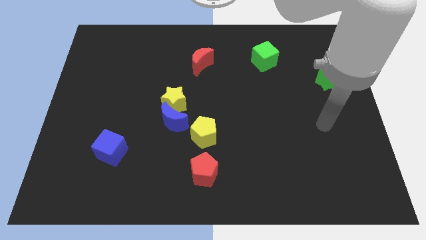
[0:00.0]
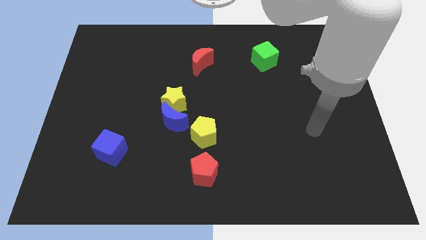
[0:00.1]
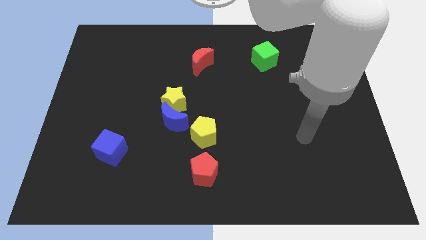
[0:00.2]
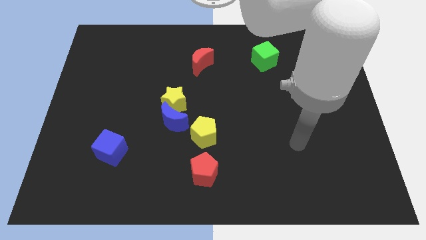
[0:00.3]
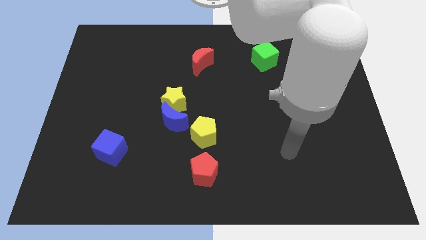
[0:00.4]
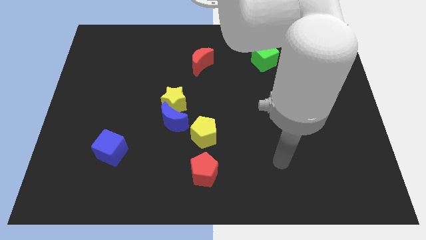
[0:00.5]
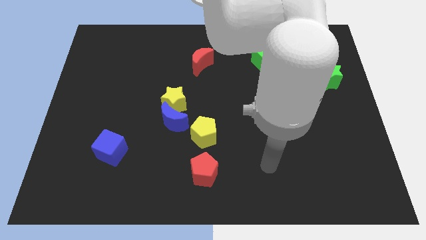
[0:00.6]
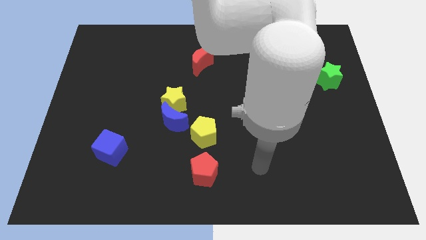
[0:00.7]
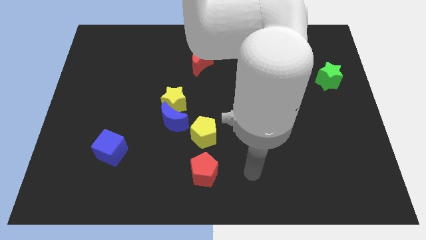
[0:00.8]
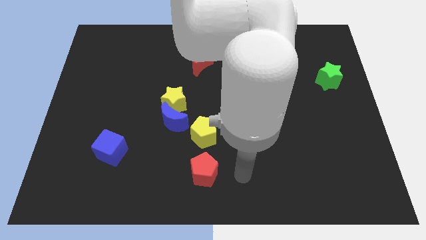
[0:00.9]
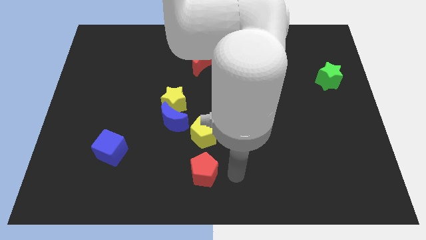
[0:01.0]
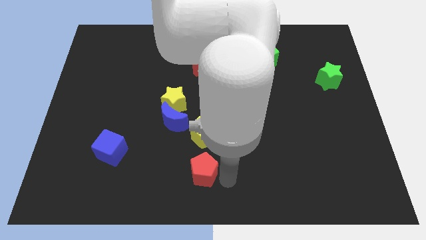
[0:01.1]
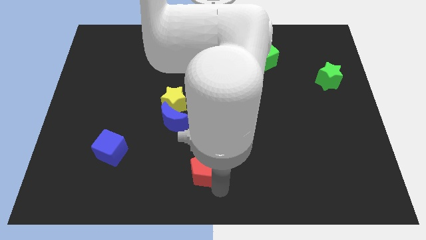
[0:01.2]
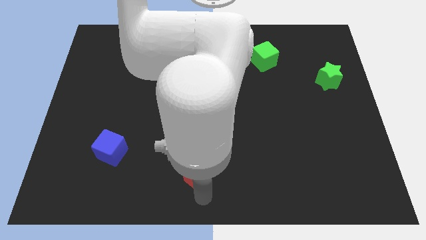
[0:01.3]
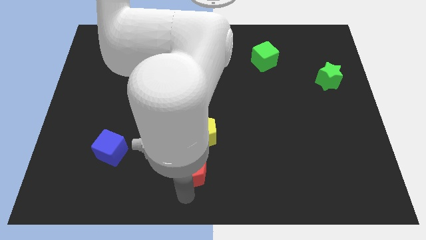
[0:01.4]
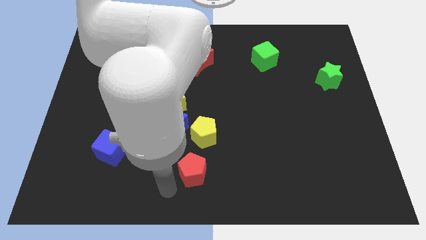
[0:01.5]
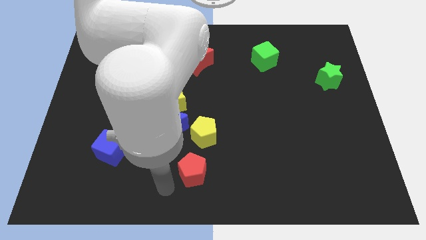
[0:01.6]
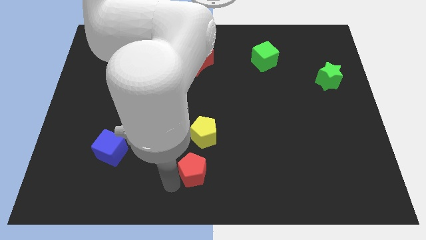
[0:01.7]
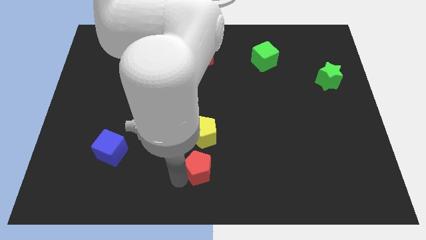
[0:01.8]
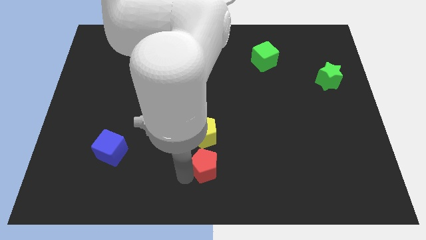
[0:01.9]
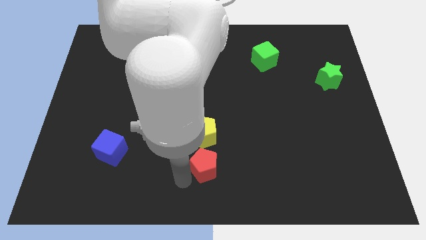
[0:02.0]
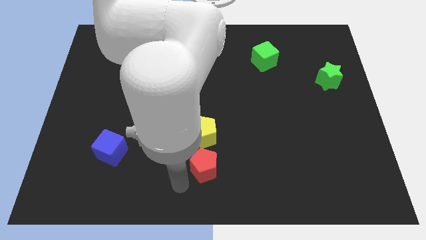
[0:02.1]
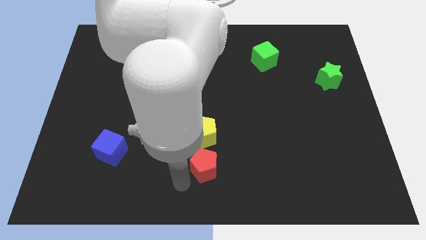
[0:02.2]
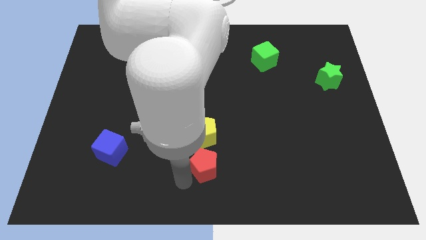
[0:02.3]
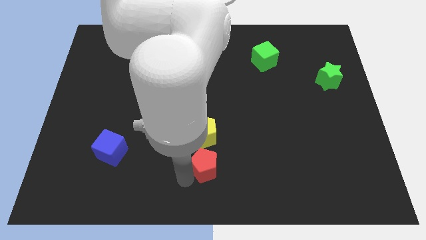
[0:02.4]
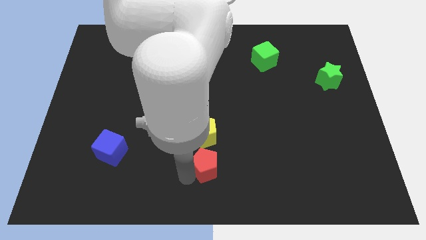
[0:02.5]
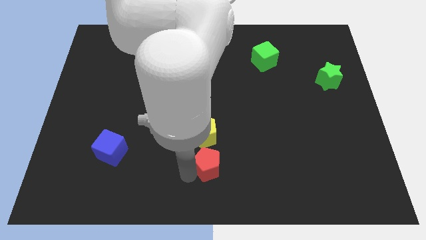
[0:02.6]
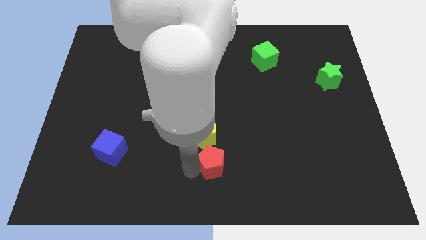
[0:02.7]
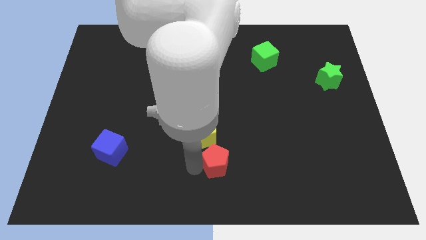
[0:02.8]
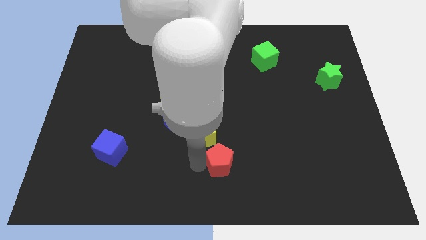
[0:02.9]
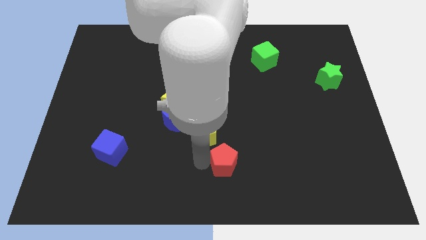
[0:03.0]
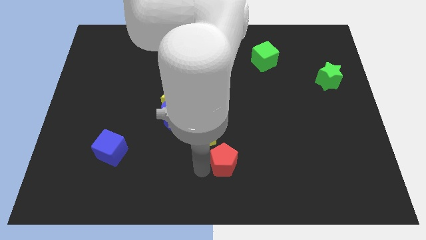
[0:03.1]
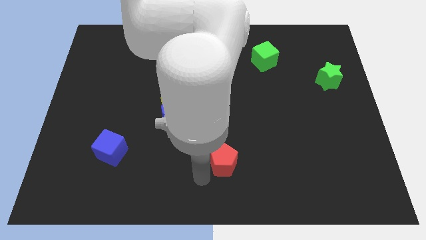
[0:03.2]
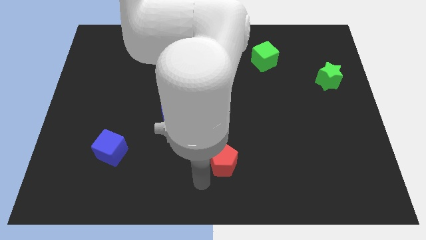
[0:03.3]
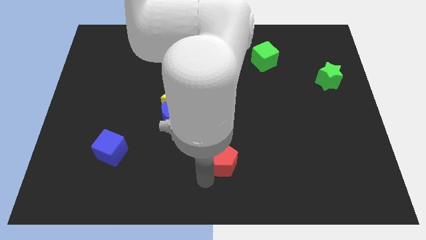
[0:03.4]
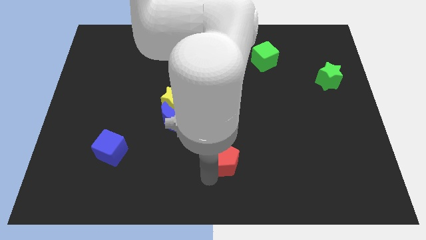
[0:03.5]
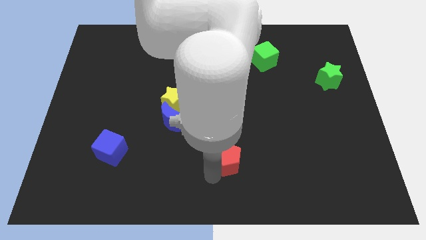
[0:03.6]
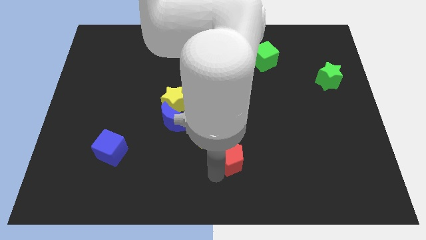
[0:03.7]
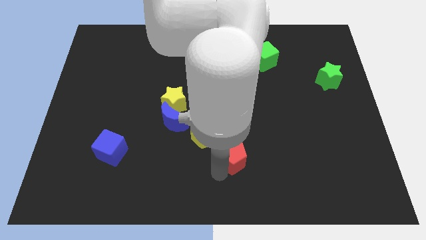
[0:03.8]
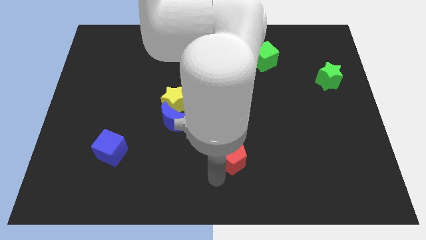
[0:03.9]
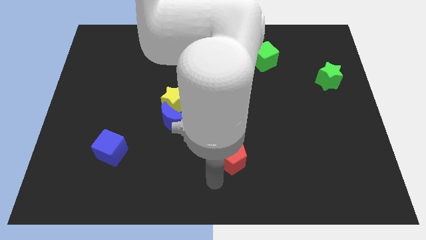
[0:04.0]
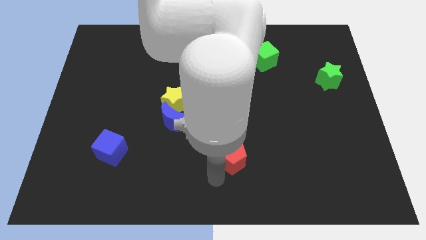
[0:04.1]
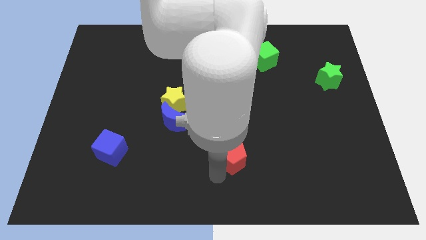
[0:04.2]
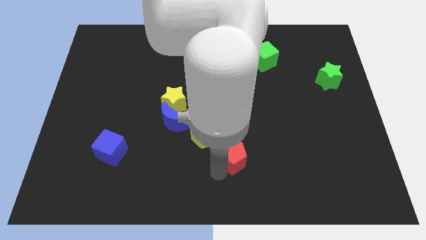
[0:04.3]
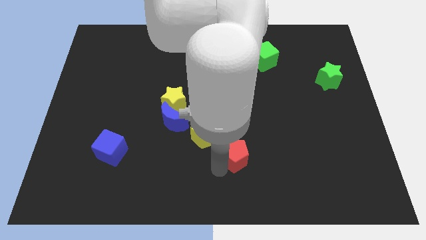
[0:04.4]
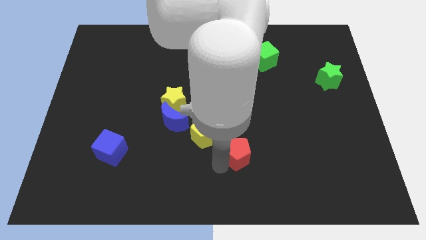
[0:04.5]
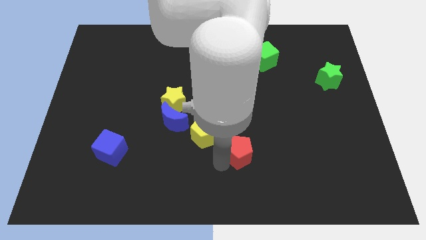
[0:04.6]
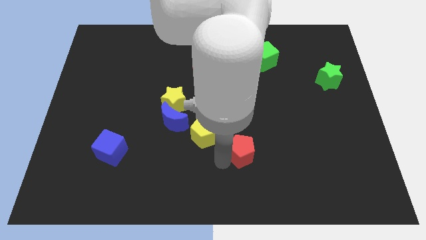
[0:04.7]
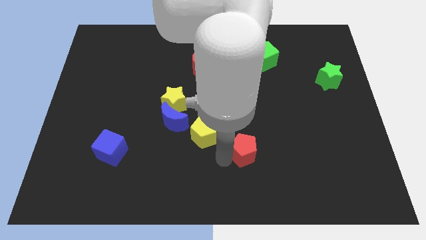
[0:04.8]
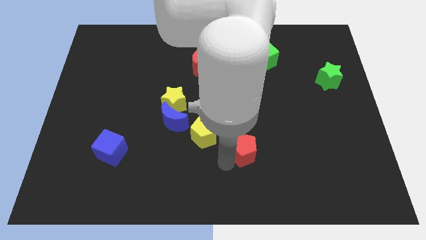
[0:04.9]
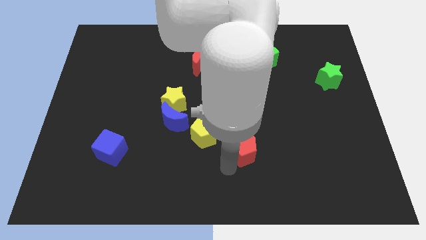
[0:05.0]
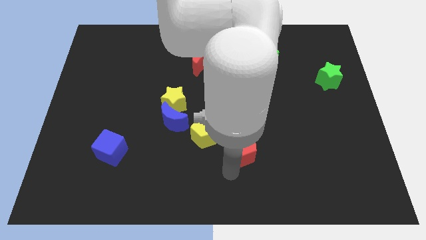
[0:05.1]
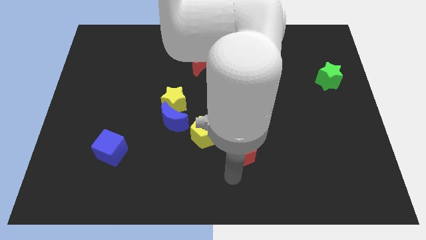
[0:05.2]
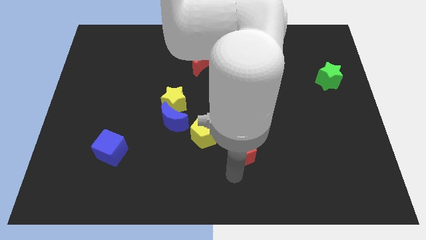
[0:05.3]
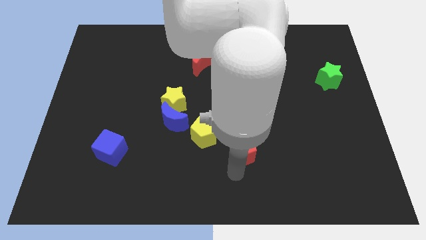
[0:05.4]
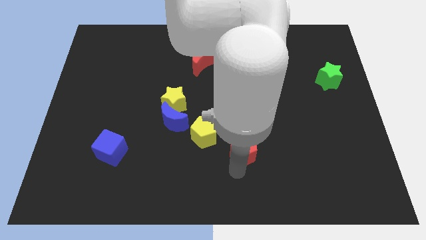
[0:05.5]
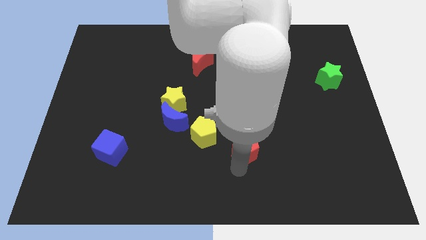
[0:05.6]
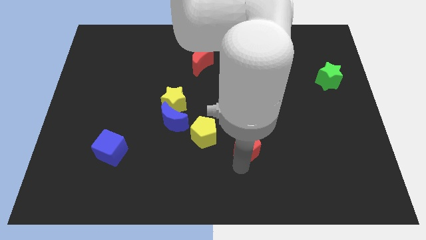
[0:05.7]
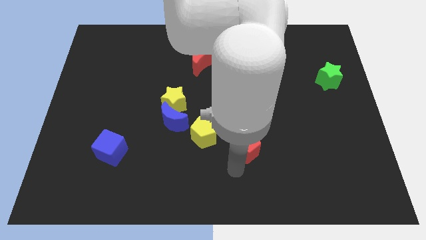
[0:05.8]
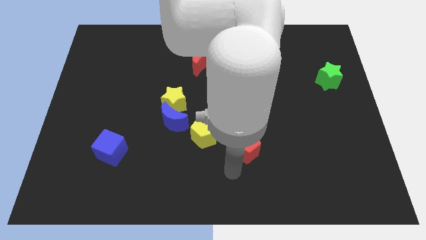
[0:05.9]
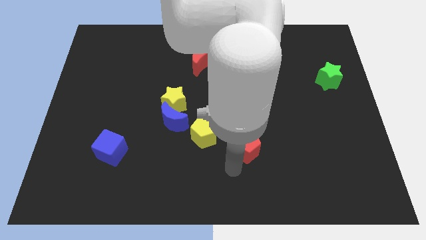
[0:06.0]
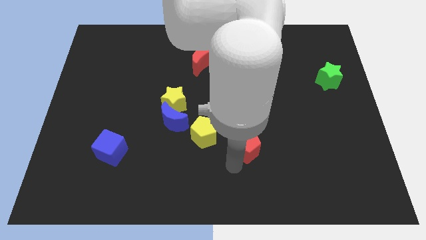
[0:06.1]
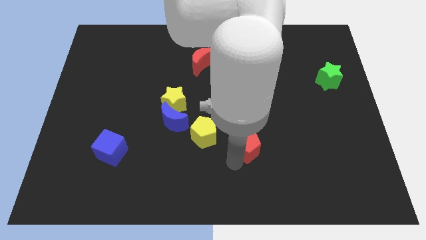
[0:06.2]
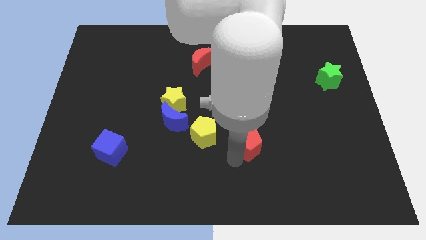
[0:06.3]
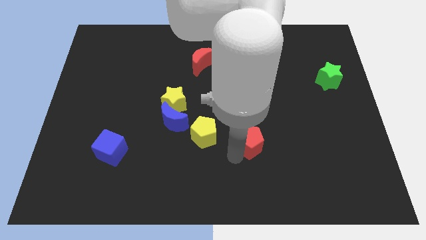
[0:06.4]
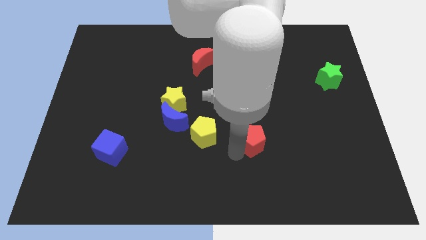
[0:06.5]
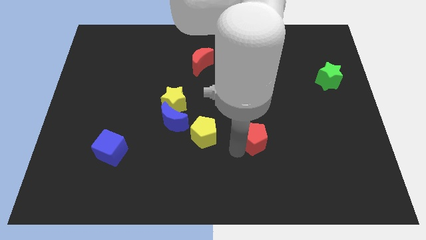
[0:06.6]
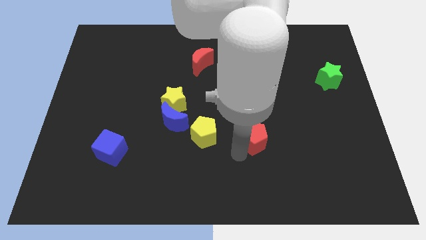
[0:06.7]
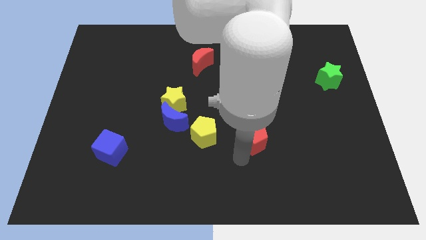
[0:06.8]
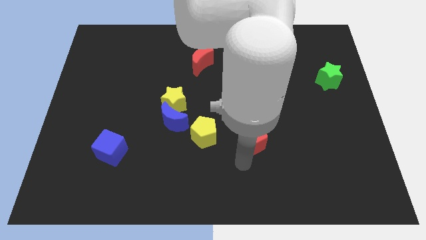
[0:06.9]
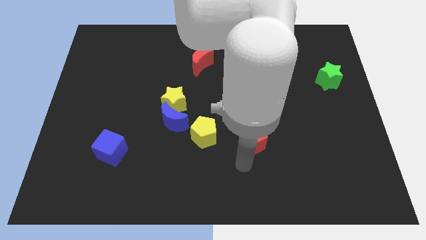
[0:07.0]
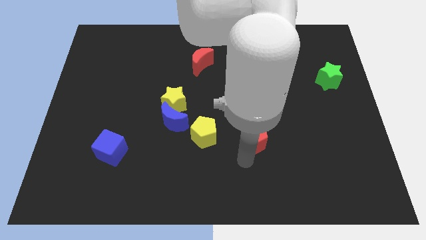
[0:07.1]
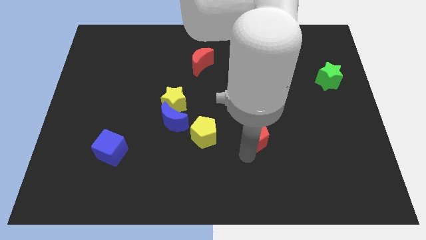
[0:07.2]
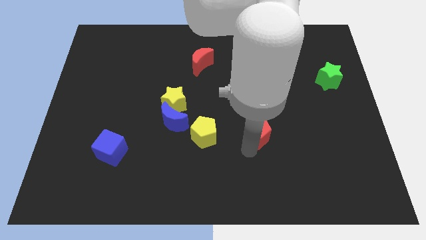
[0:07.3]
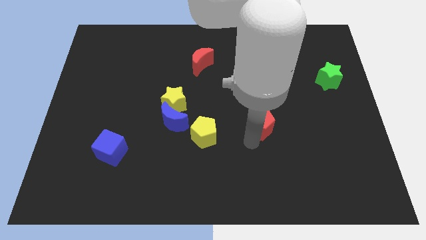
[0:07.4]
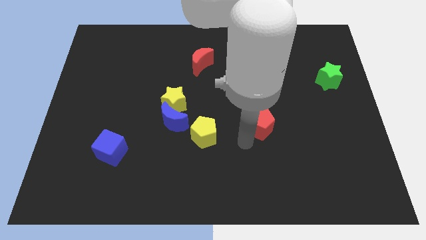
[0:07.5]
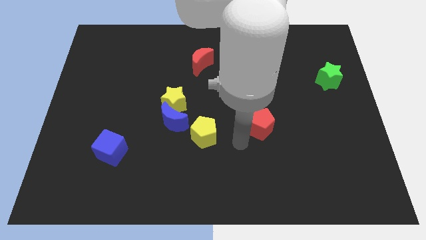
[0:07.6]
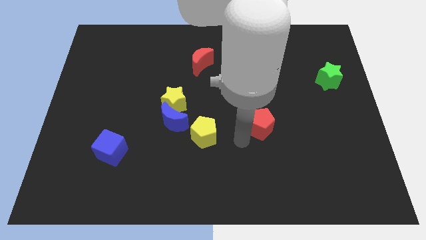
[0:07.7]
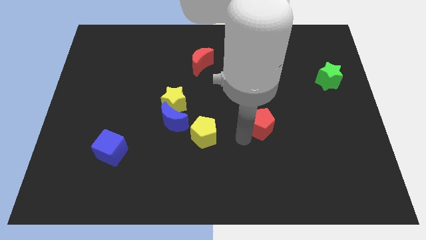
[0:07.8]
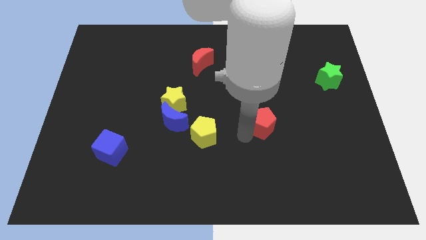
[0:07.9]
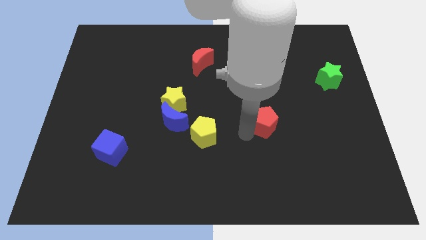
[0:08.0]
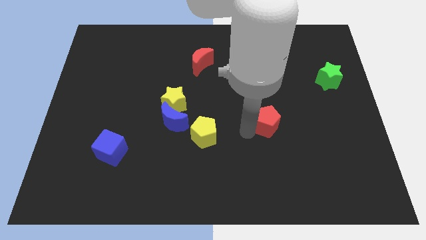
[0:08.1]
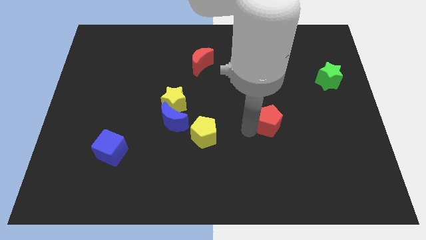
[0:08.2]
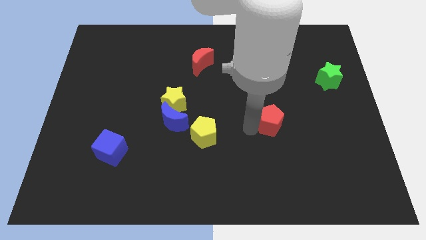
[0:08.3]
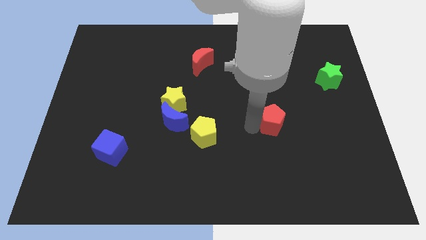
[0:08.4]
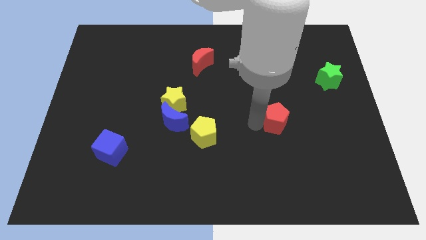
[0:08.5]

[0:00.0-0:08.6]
push the red pentagon diagonally up and to the right
